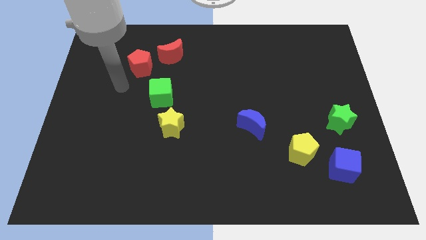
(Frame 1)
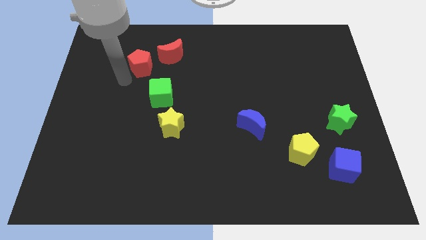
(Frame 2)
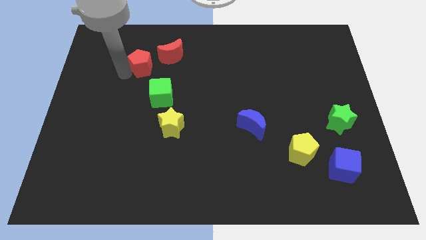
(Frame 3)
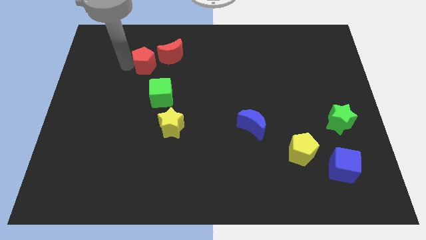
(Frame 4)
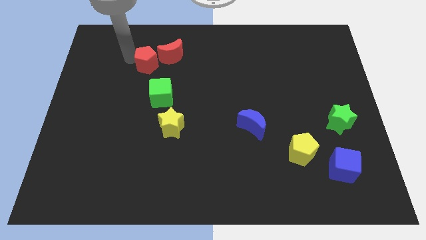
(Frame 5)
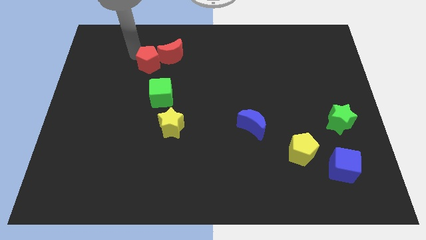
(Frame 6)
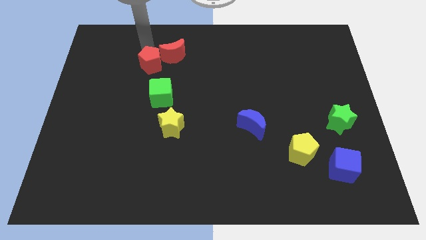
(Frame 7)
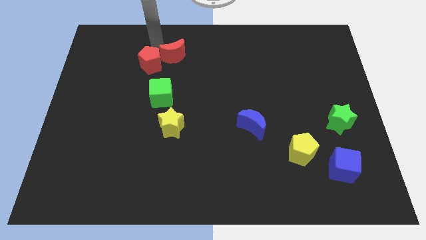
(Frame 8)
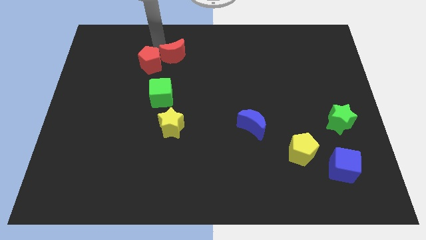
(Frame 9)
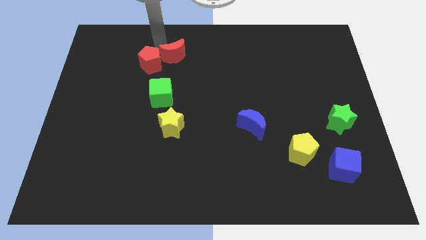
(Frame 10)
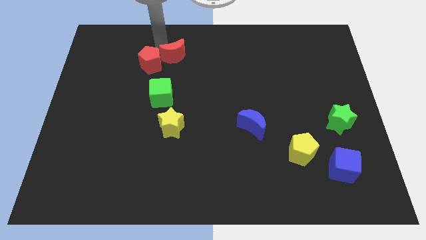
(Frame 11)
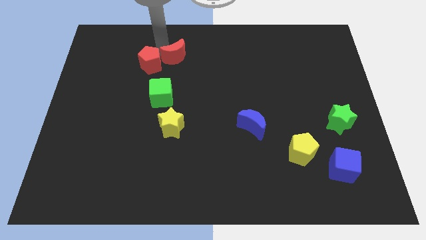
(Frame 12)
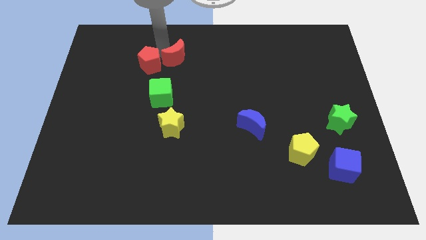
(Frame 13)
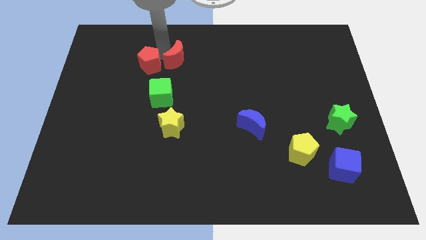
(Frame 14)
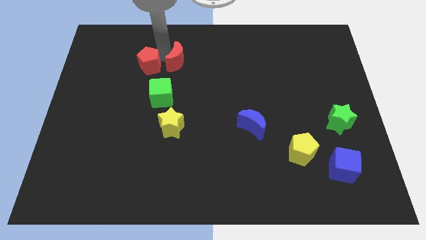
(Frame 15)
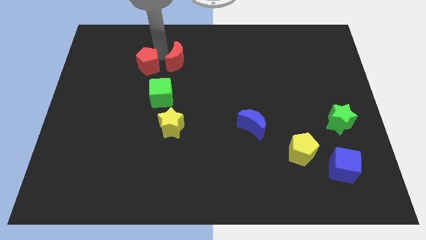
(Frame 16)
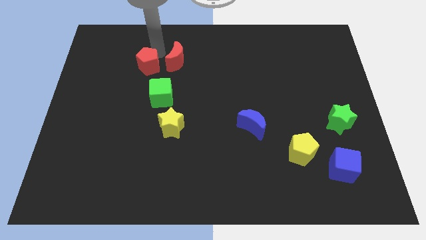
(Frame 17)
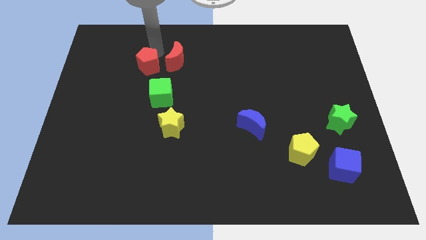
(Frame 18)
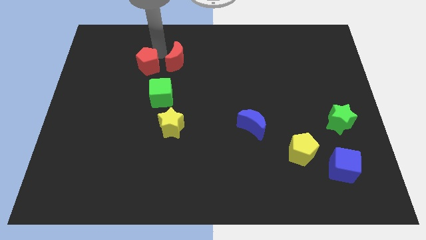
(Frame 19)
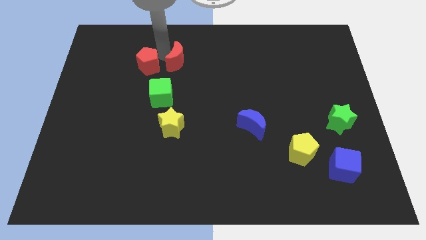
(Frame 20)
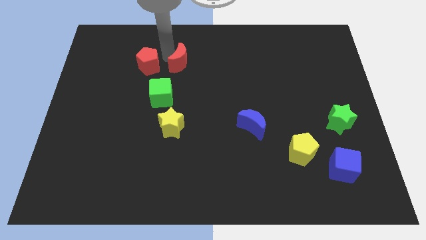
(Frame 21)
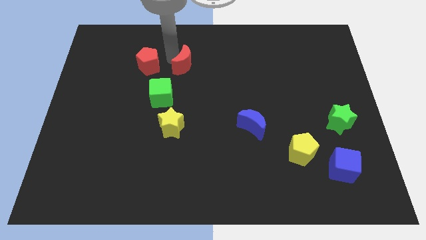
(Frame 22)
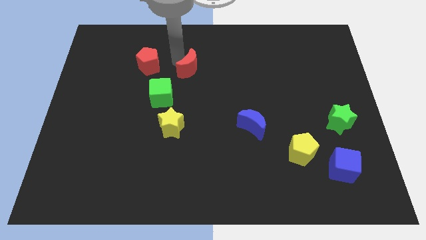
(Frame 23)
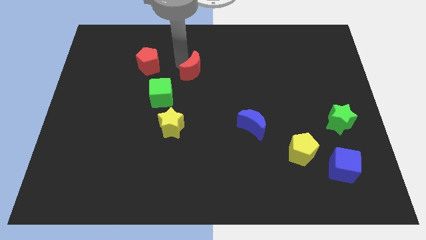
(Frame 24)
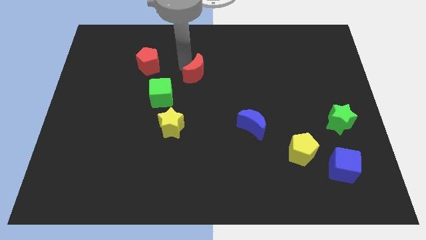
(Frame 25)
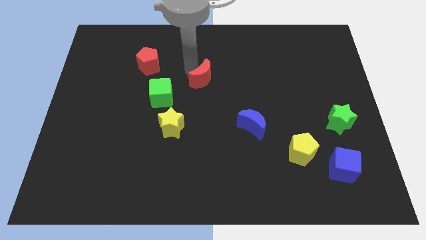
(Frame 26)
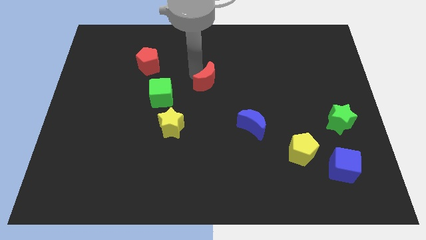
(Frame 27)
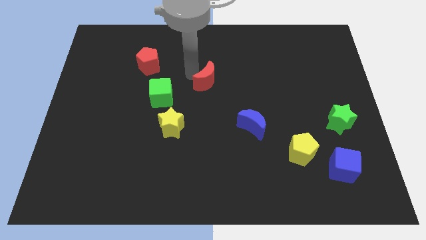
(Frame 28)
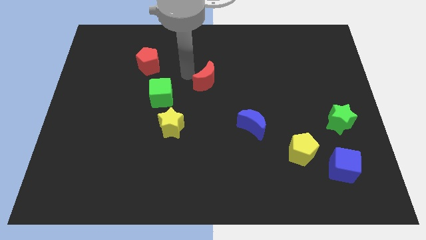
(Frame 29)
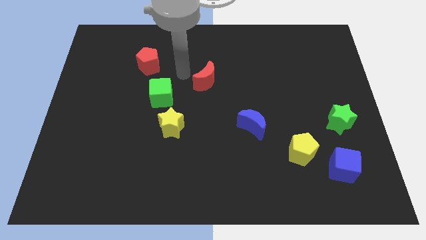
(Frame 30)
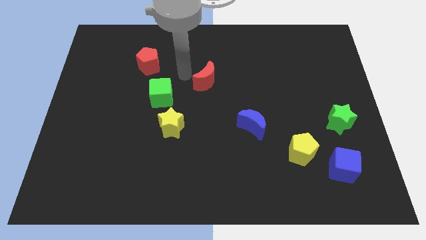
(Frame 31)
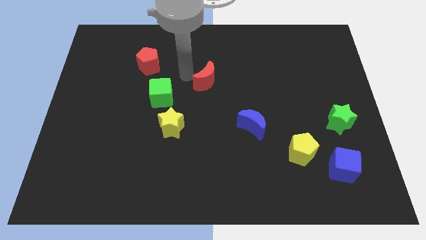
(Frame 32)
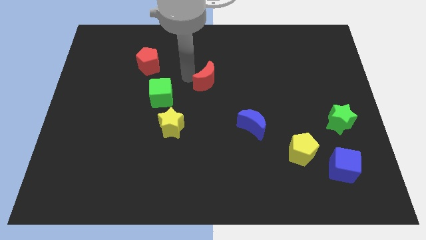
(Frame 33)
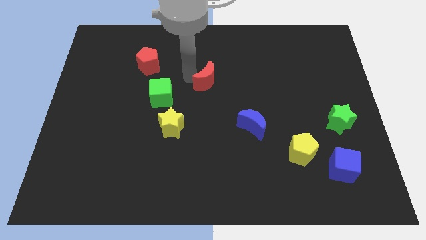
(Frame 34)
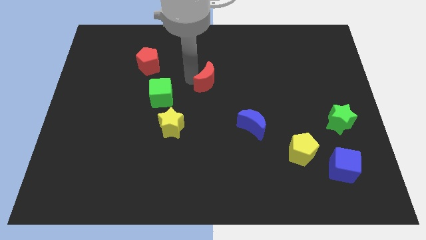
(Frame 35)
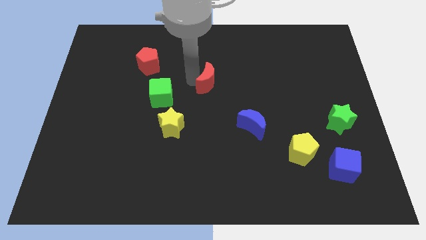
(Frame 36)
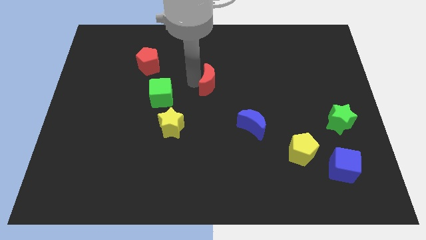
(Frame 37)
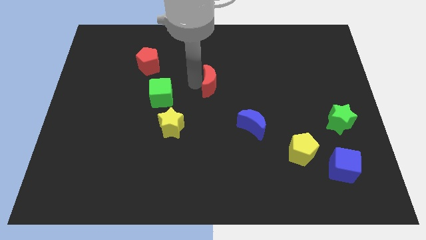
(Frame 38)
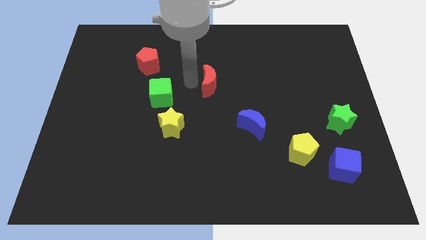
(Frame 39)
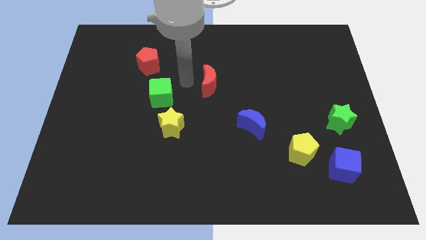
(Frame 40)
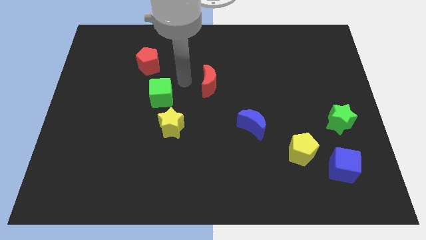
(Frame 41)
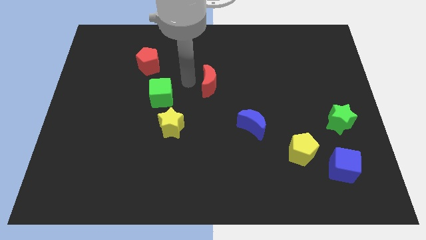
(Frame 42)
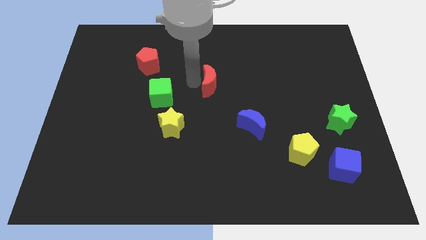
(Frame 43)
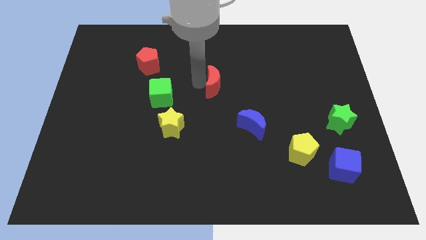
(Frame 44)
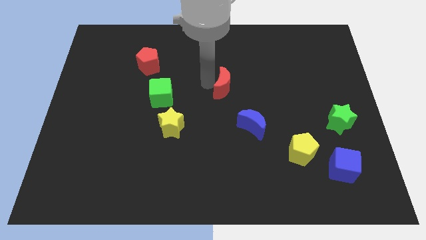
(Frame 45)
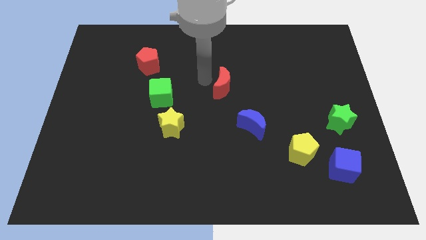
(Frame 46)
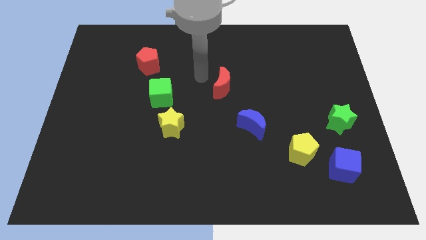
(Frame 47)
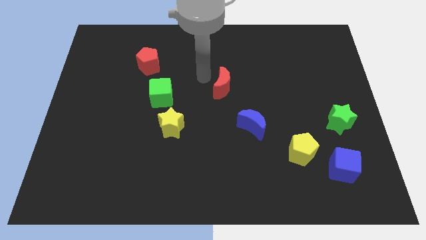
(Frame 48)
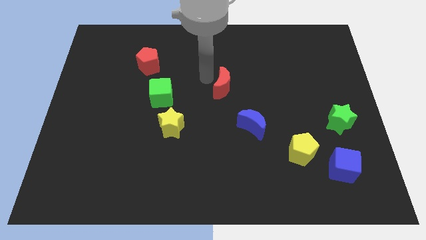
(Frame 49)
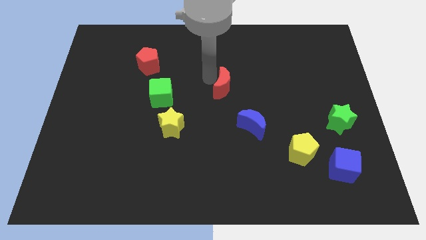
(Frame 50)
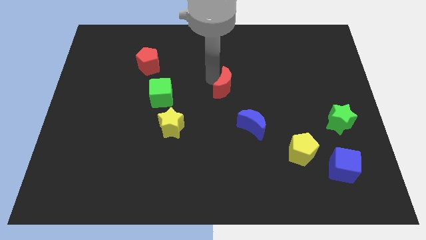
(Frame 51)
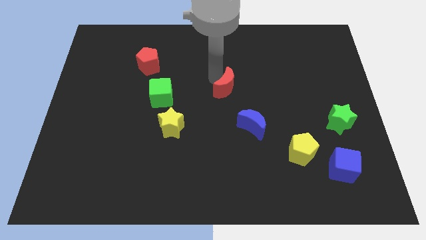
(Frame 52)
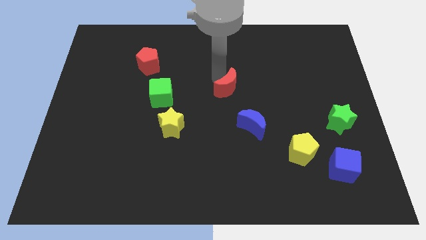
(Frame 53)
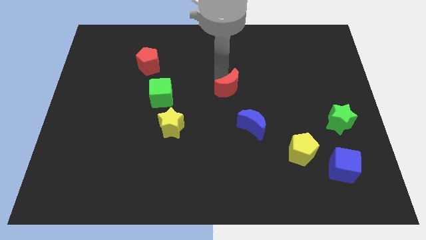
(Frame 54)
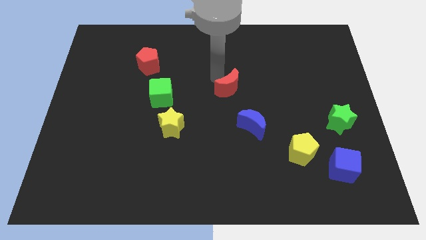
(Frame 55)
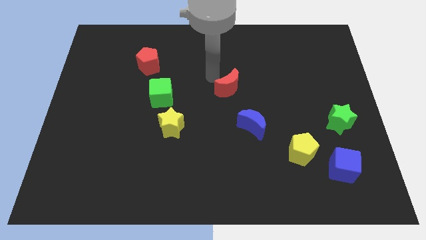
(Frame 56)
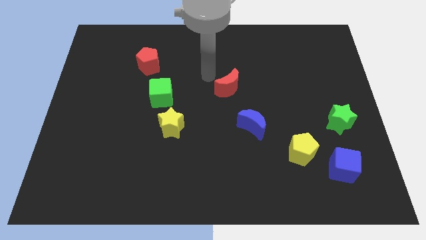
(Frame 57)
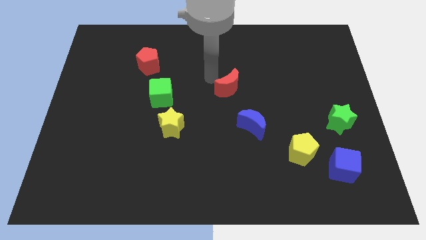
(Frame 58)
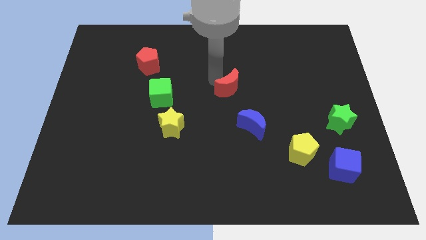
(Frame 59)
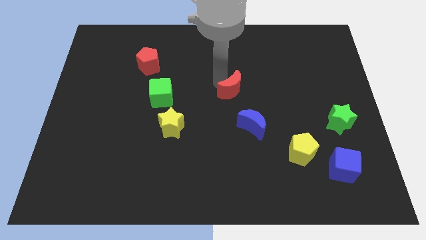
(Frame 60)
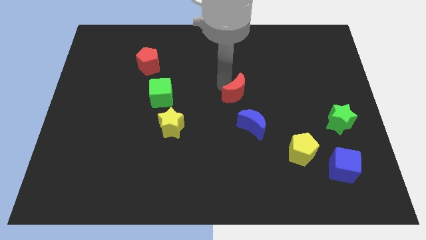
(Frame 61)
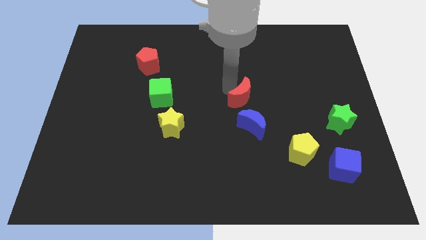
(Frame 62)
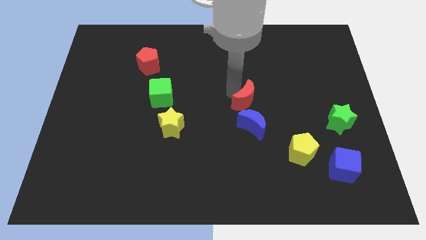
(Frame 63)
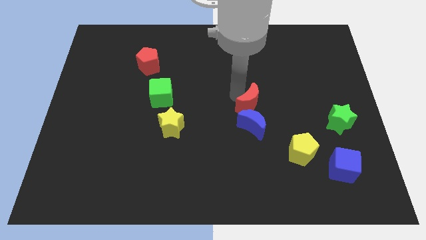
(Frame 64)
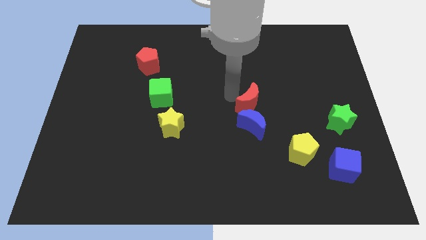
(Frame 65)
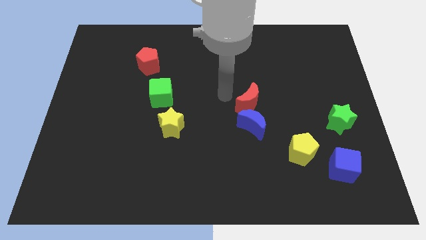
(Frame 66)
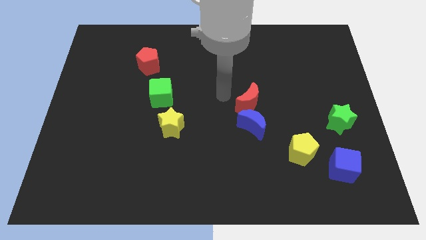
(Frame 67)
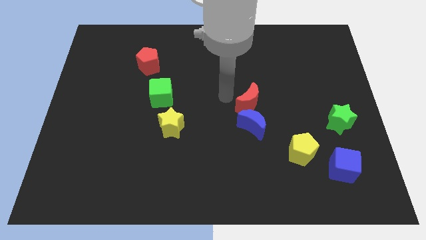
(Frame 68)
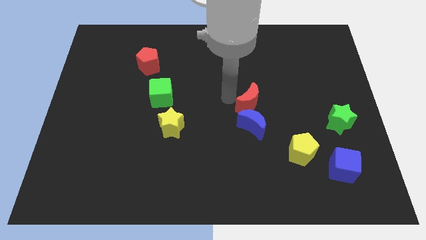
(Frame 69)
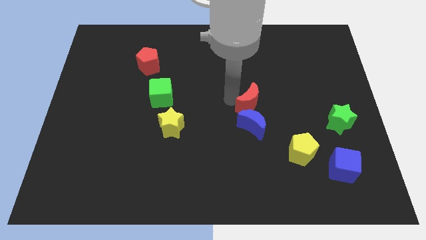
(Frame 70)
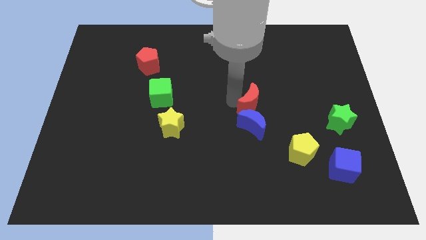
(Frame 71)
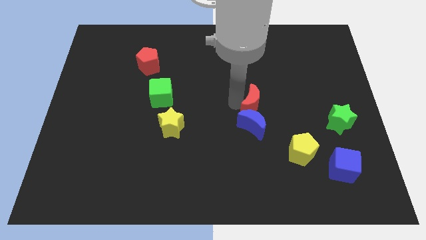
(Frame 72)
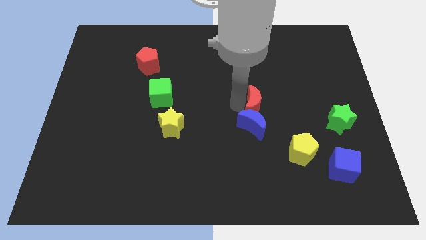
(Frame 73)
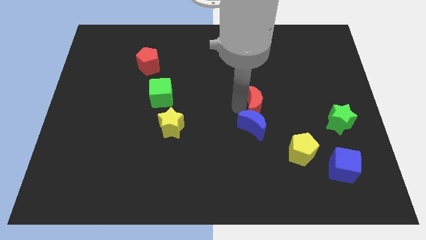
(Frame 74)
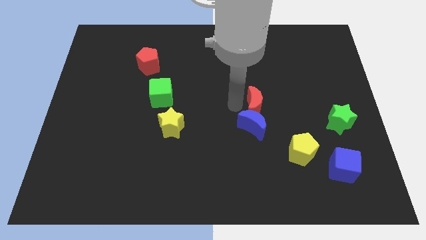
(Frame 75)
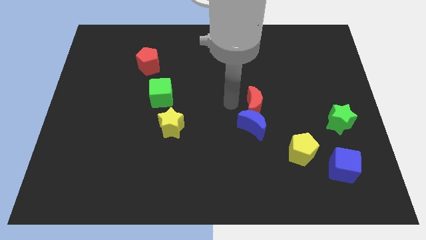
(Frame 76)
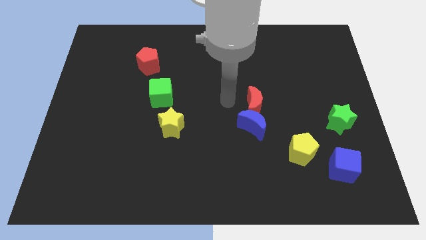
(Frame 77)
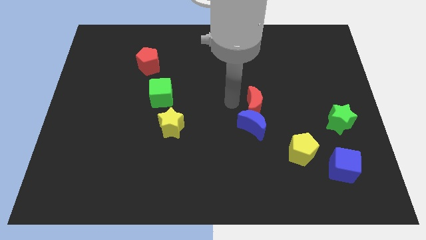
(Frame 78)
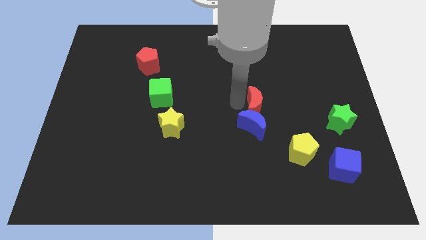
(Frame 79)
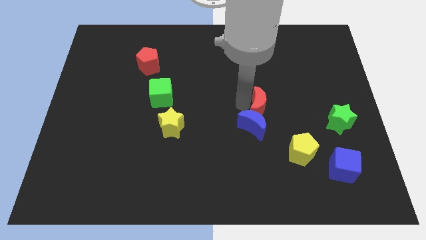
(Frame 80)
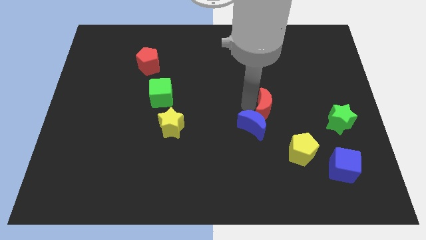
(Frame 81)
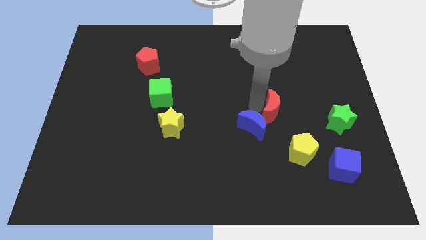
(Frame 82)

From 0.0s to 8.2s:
push the red moon just left of the green star
